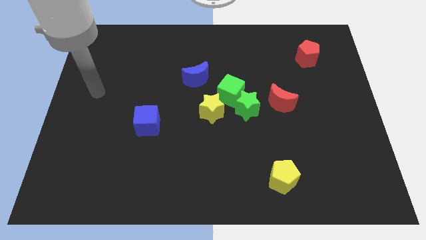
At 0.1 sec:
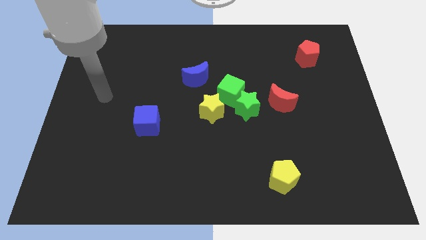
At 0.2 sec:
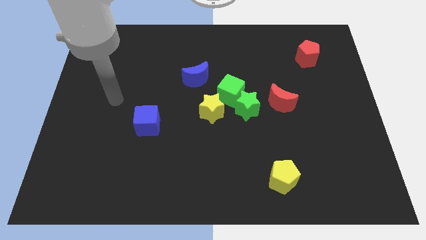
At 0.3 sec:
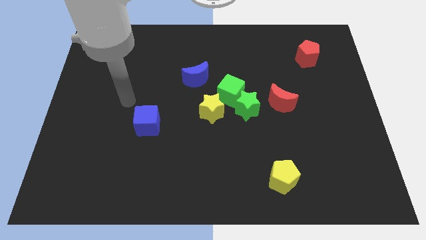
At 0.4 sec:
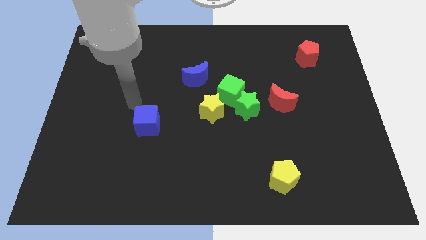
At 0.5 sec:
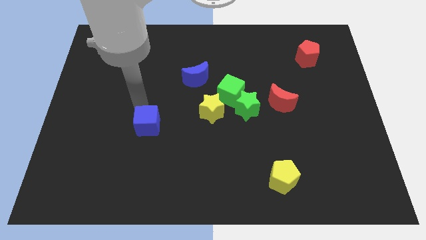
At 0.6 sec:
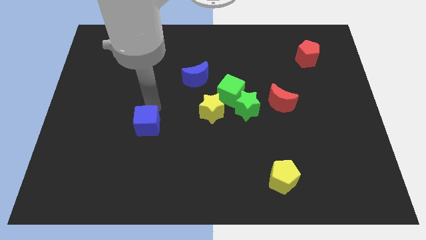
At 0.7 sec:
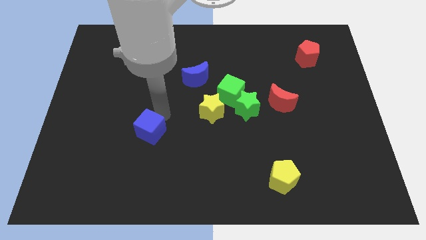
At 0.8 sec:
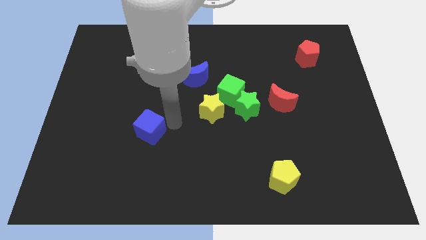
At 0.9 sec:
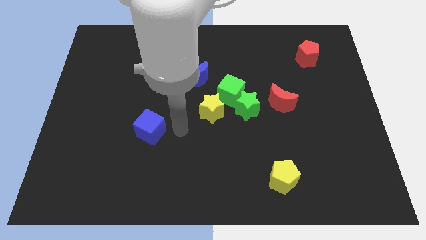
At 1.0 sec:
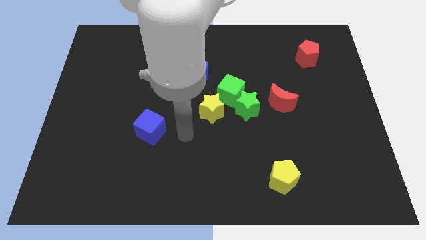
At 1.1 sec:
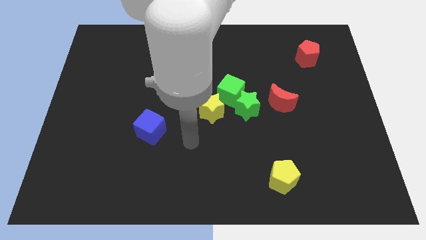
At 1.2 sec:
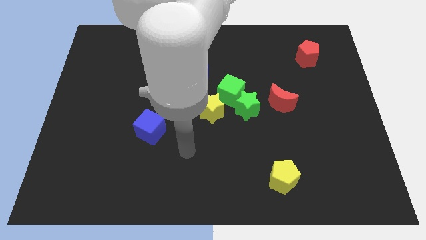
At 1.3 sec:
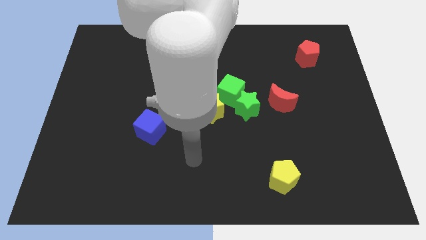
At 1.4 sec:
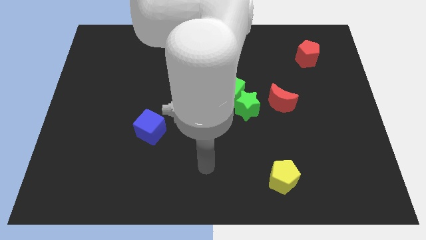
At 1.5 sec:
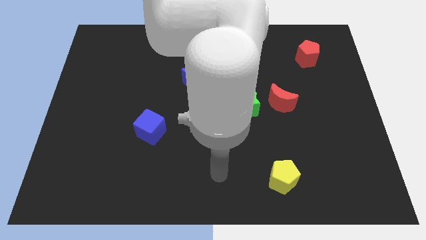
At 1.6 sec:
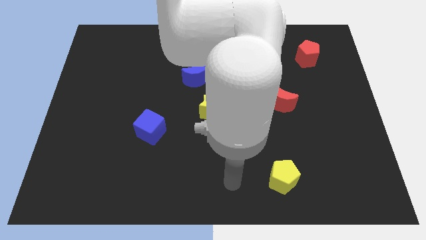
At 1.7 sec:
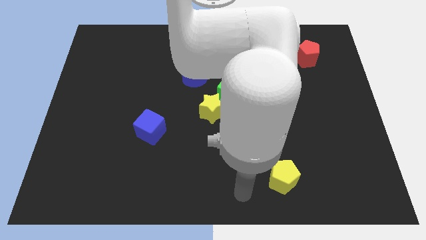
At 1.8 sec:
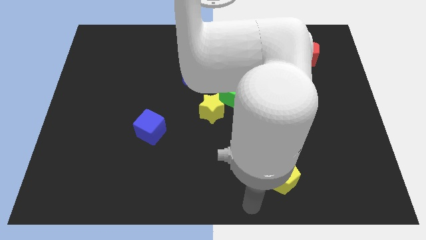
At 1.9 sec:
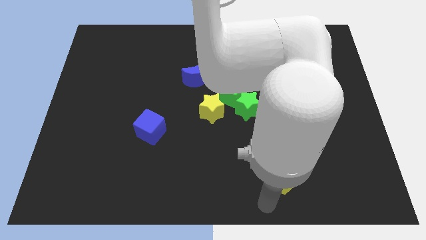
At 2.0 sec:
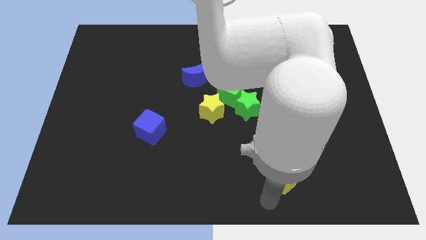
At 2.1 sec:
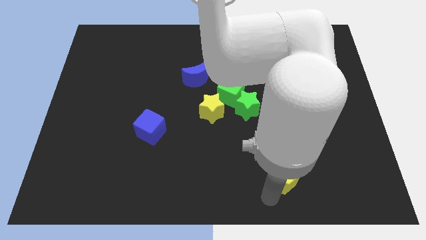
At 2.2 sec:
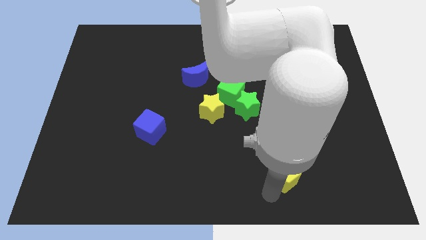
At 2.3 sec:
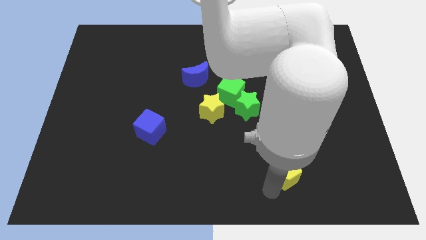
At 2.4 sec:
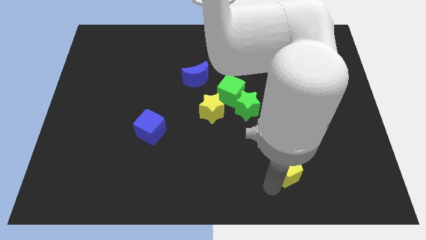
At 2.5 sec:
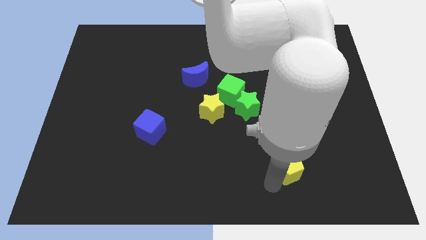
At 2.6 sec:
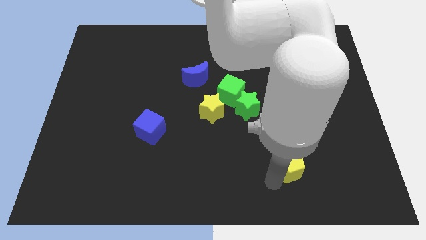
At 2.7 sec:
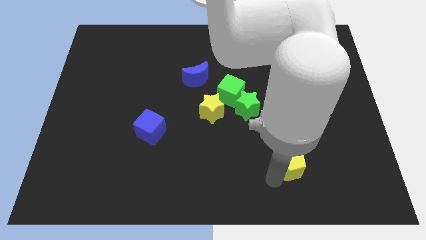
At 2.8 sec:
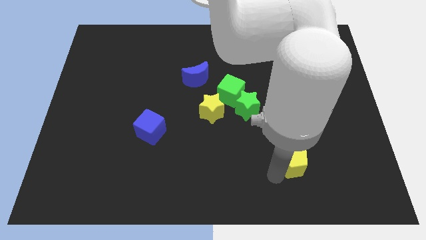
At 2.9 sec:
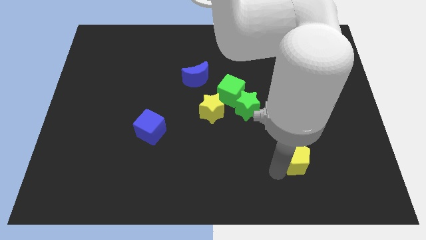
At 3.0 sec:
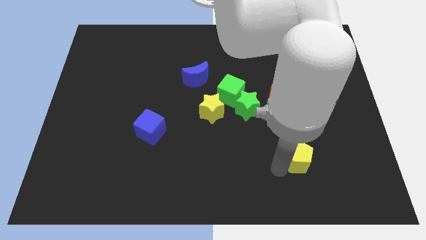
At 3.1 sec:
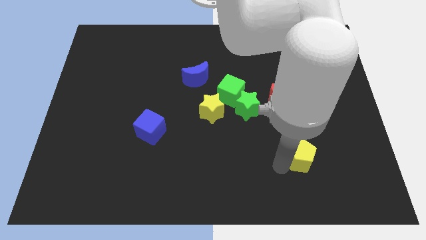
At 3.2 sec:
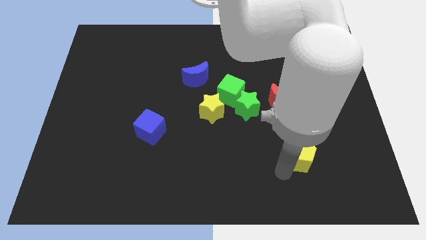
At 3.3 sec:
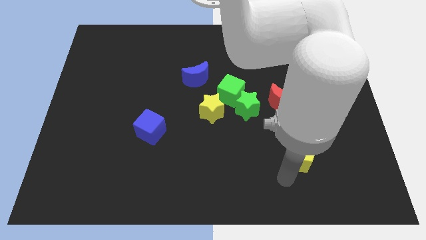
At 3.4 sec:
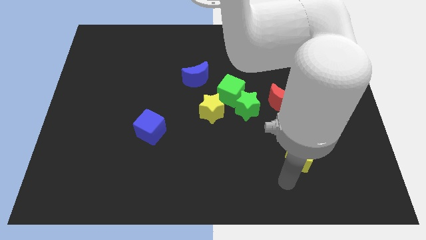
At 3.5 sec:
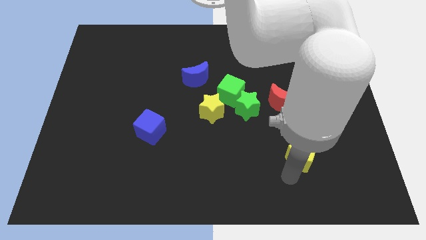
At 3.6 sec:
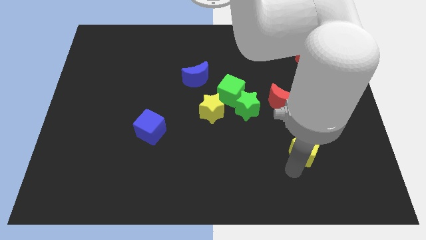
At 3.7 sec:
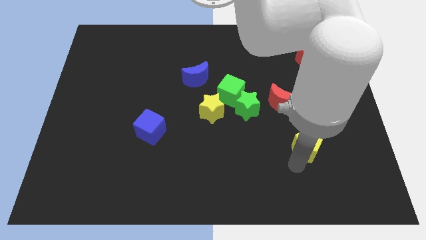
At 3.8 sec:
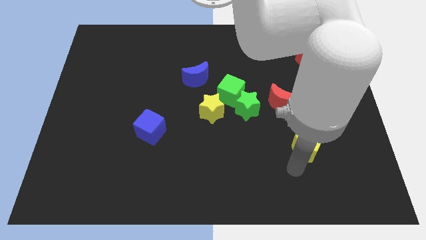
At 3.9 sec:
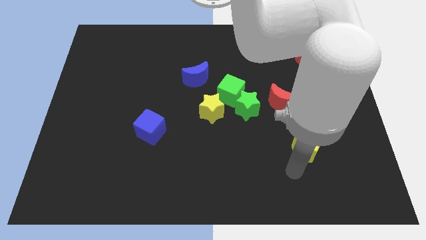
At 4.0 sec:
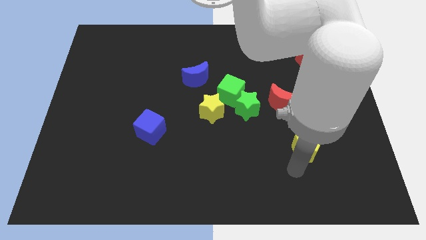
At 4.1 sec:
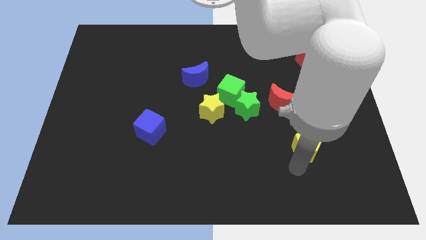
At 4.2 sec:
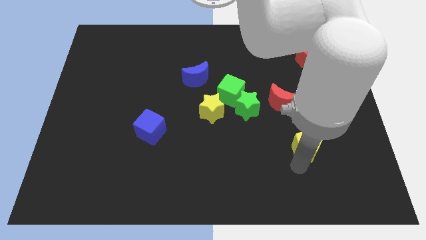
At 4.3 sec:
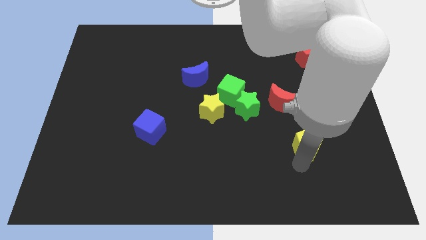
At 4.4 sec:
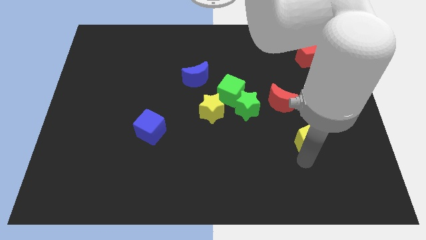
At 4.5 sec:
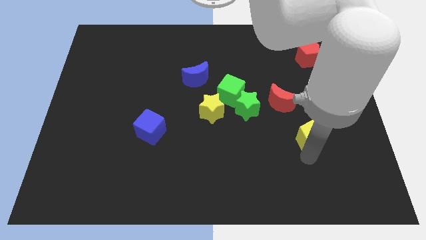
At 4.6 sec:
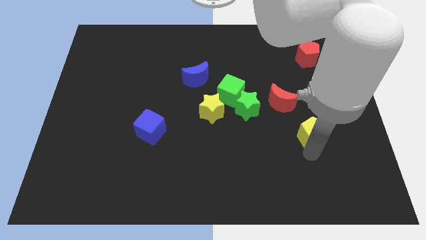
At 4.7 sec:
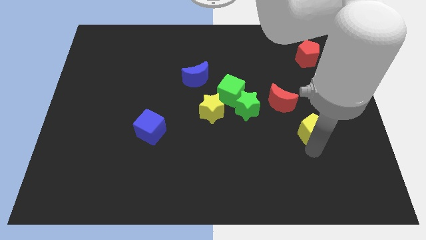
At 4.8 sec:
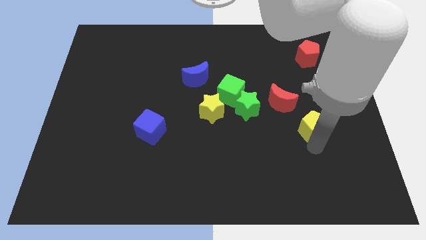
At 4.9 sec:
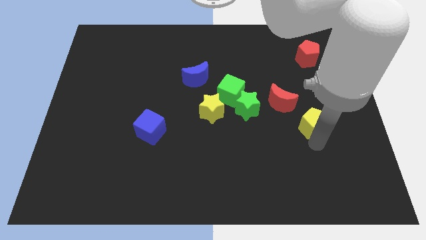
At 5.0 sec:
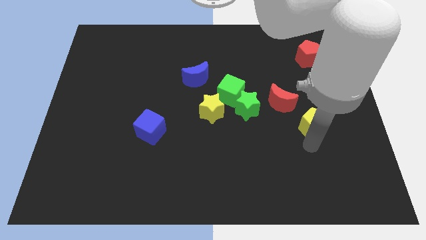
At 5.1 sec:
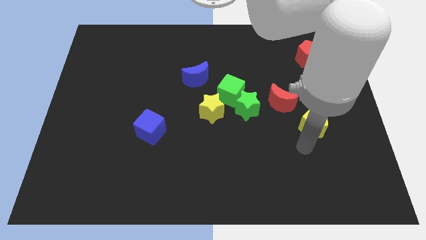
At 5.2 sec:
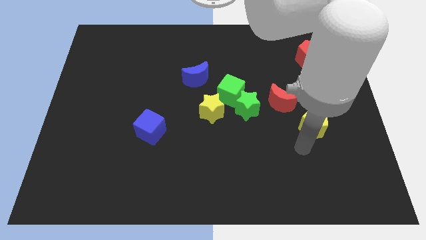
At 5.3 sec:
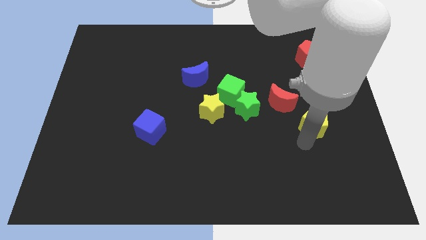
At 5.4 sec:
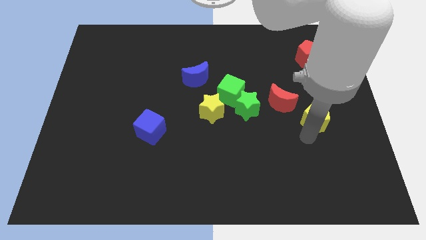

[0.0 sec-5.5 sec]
push the yellow pentagon just right of the red moon

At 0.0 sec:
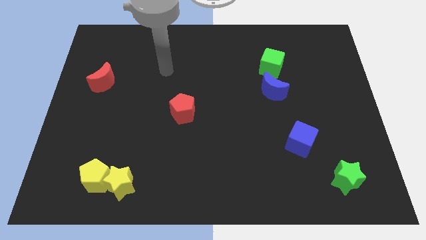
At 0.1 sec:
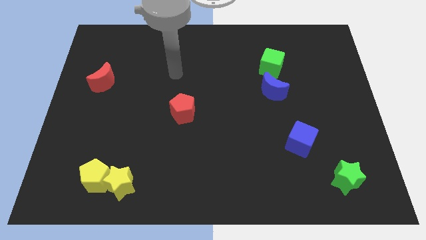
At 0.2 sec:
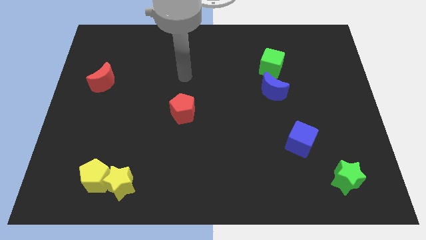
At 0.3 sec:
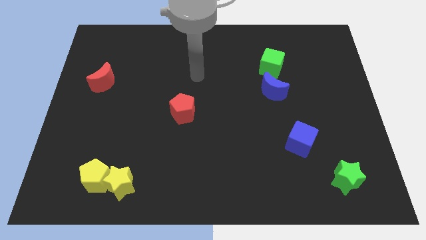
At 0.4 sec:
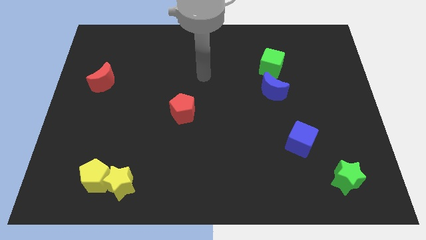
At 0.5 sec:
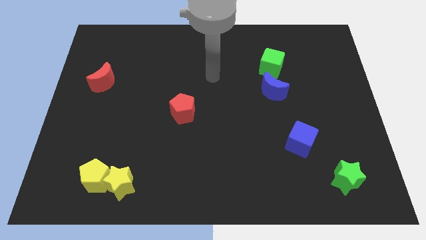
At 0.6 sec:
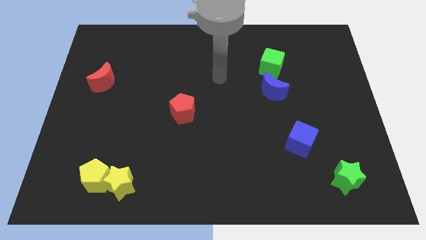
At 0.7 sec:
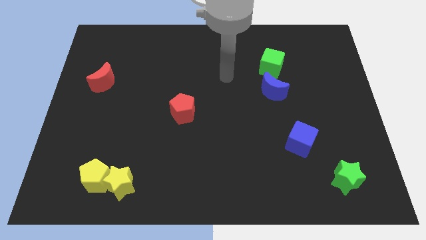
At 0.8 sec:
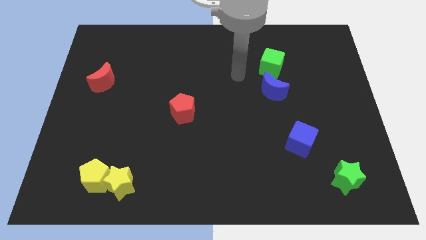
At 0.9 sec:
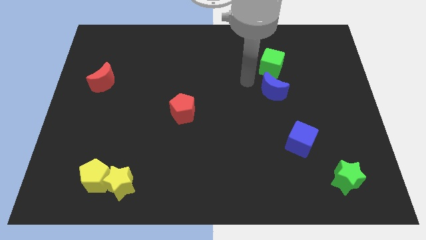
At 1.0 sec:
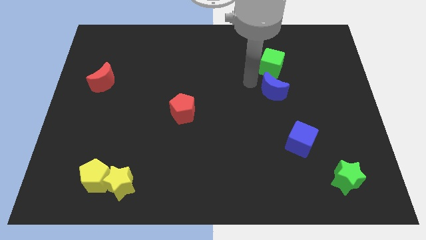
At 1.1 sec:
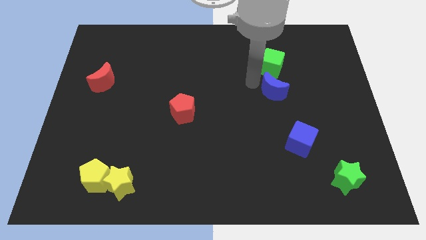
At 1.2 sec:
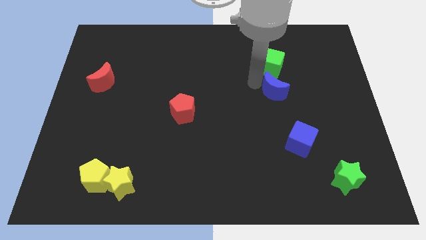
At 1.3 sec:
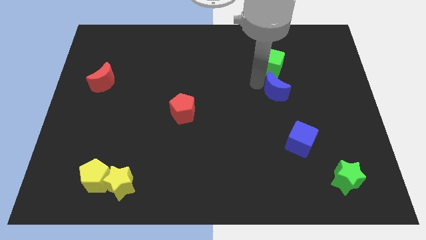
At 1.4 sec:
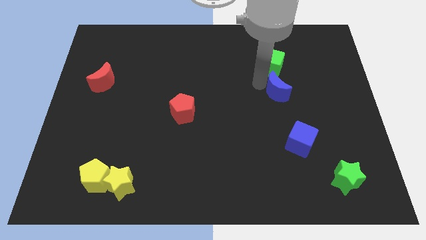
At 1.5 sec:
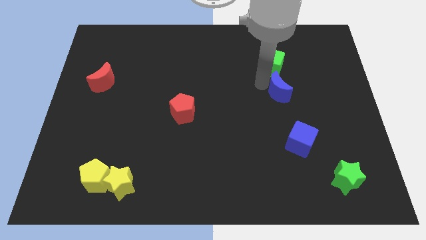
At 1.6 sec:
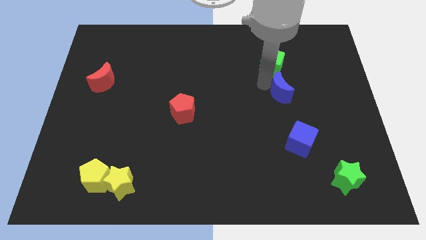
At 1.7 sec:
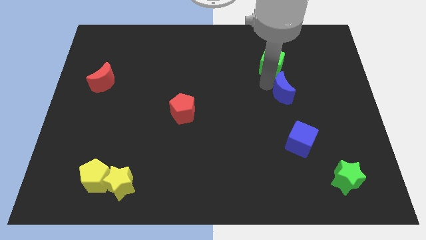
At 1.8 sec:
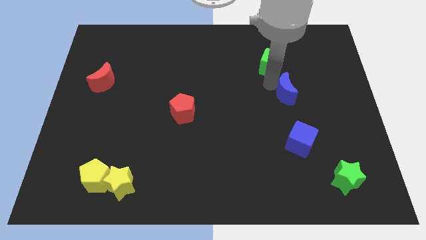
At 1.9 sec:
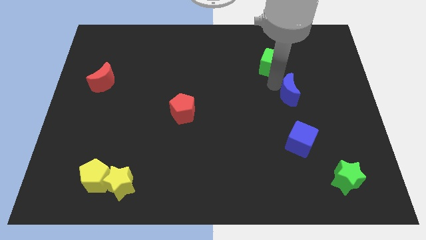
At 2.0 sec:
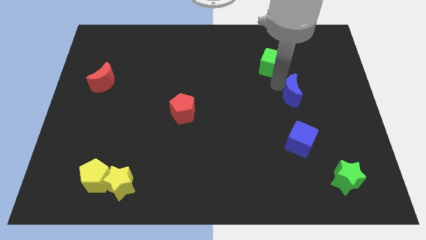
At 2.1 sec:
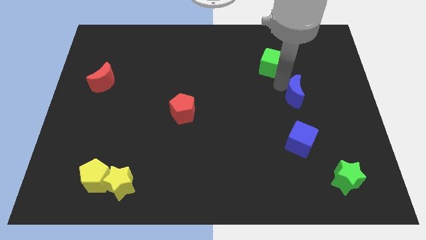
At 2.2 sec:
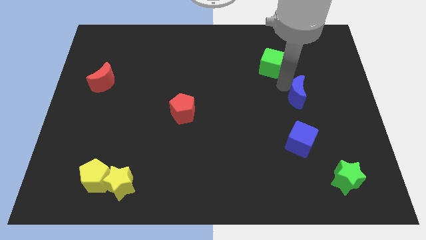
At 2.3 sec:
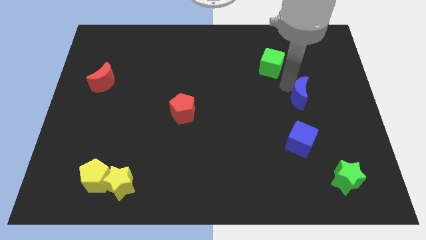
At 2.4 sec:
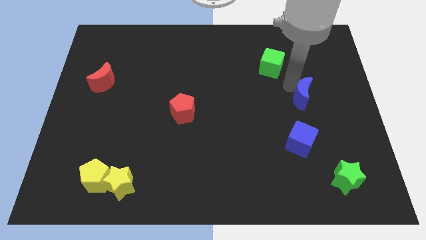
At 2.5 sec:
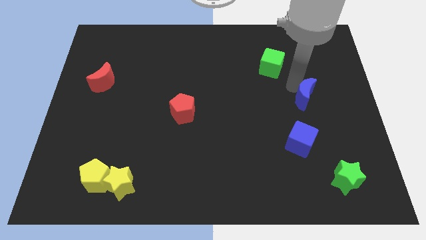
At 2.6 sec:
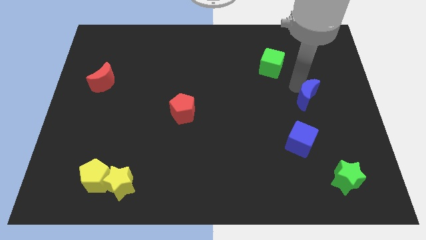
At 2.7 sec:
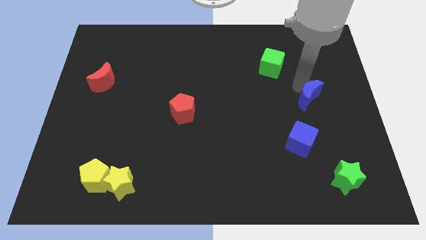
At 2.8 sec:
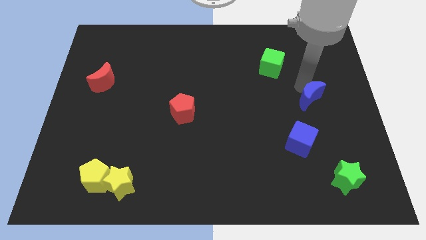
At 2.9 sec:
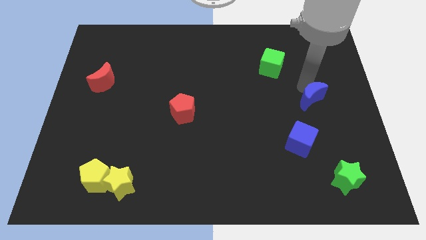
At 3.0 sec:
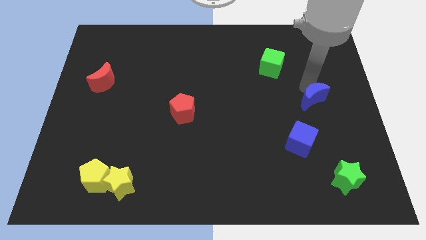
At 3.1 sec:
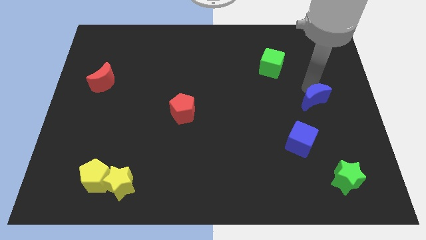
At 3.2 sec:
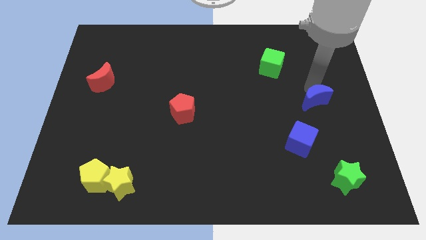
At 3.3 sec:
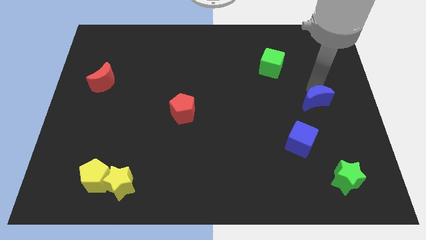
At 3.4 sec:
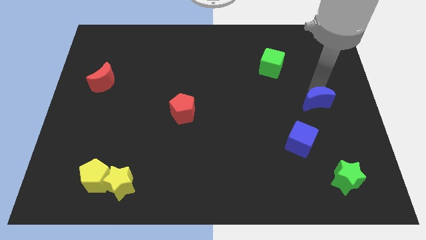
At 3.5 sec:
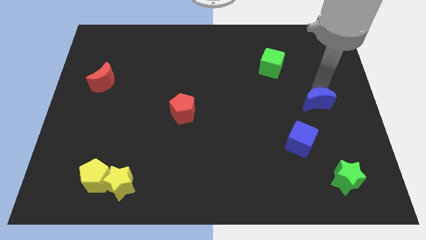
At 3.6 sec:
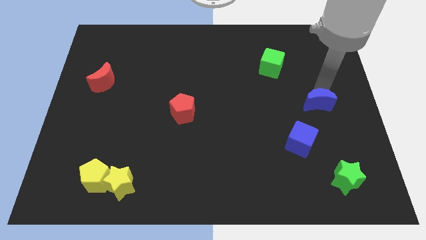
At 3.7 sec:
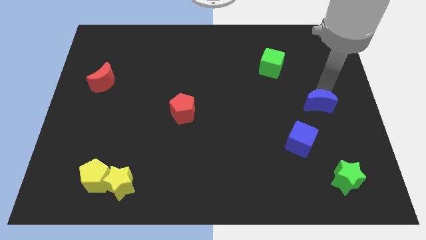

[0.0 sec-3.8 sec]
push the blue moon diagonally up and to the right of the blue cube
